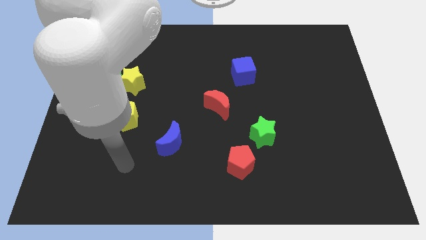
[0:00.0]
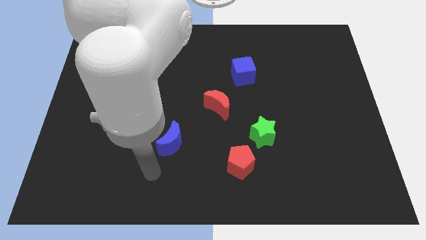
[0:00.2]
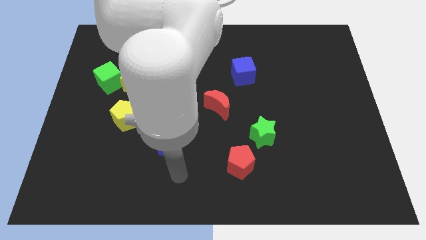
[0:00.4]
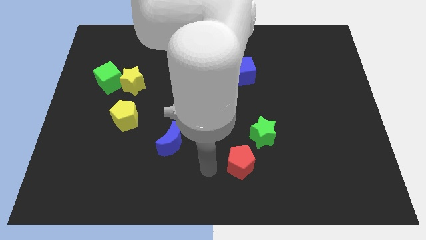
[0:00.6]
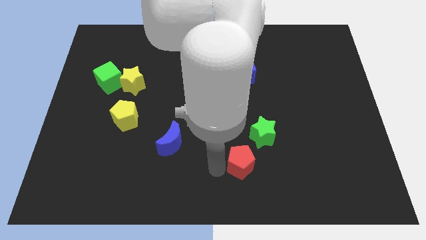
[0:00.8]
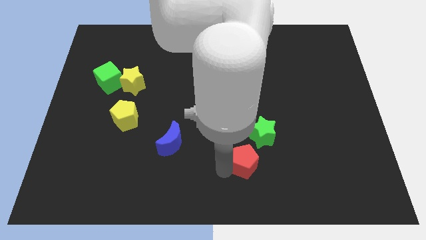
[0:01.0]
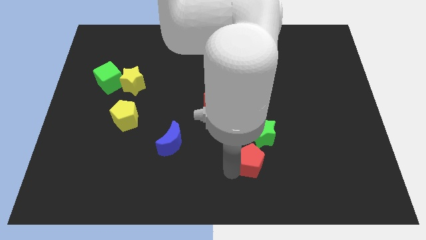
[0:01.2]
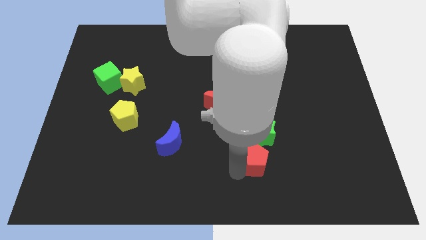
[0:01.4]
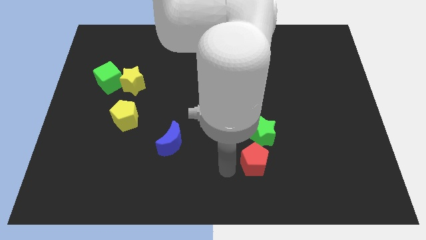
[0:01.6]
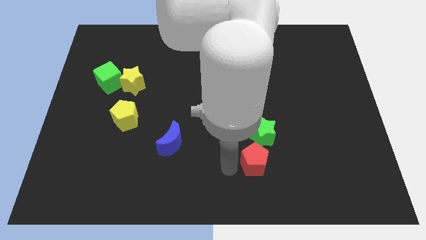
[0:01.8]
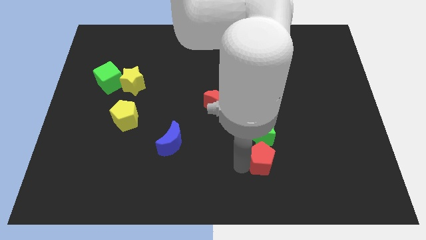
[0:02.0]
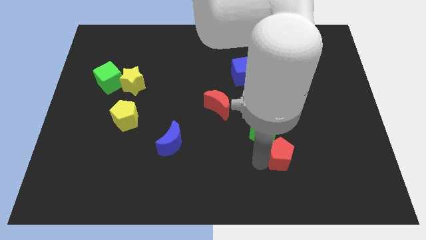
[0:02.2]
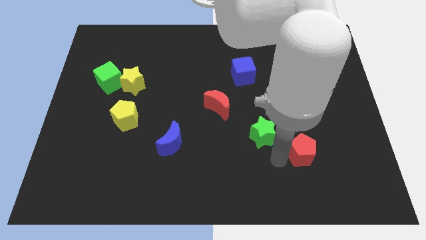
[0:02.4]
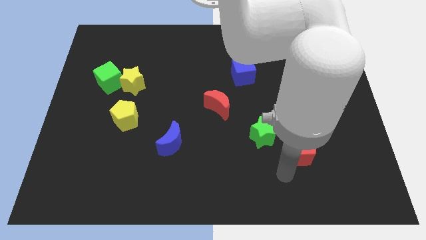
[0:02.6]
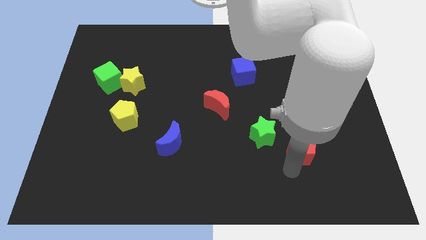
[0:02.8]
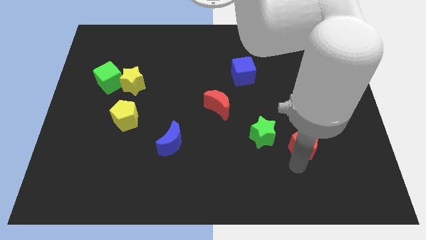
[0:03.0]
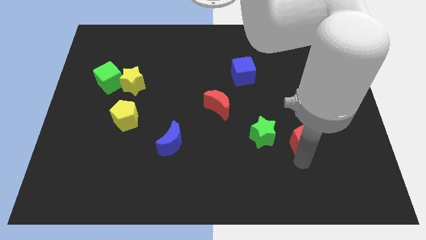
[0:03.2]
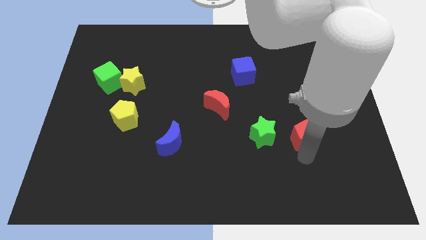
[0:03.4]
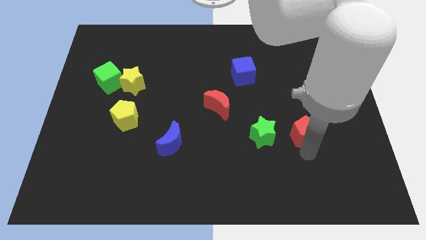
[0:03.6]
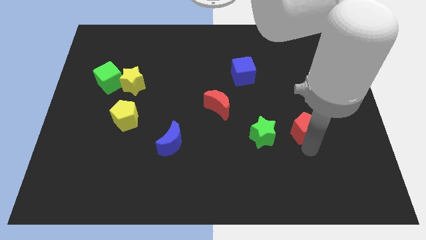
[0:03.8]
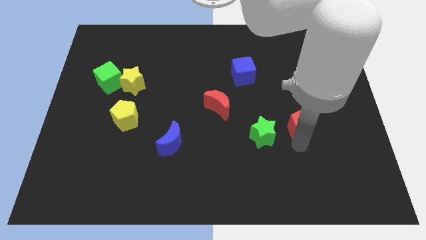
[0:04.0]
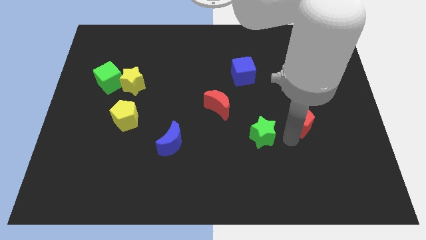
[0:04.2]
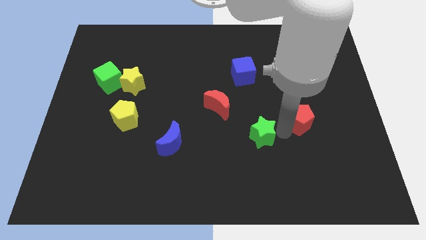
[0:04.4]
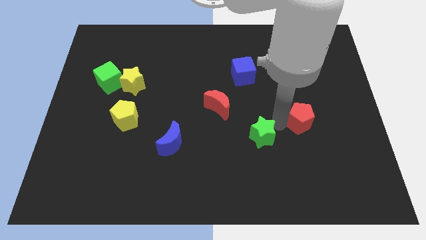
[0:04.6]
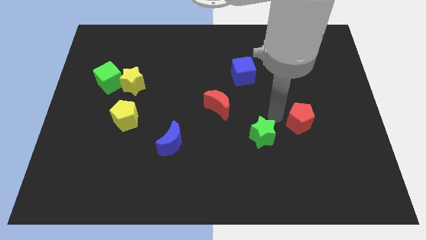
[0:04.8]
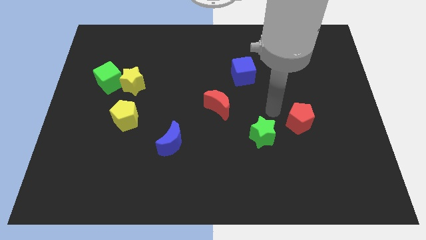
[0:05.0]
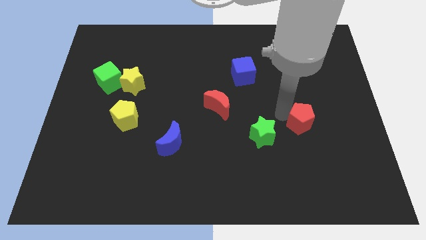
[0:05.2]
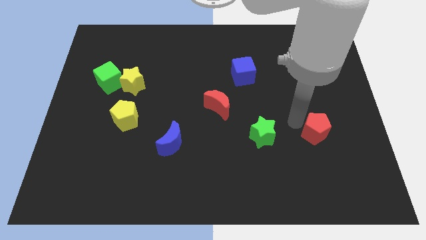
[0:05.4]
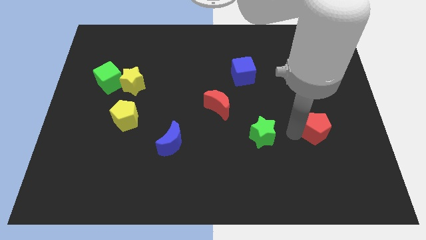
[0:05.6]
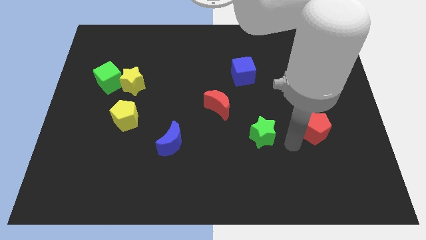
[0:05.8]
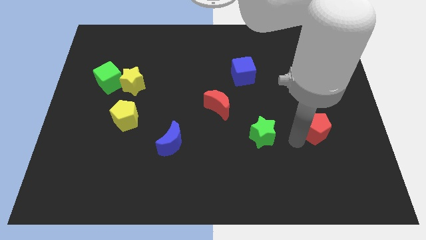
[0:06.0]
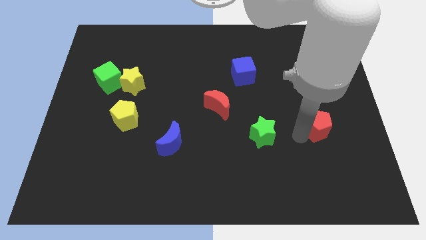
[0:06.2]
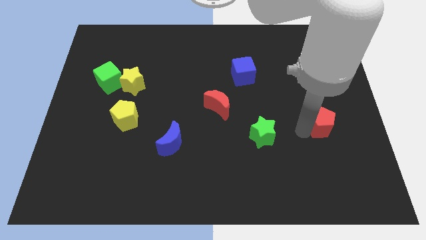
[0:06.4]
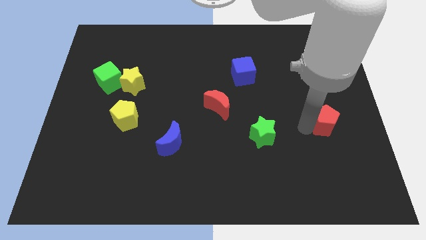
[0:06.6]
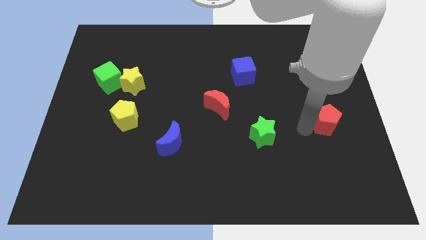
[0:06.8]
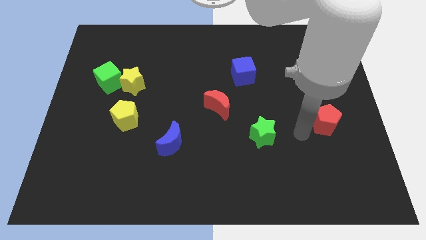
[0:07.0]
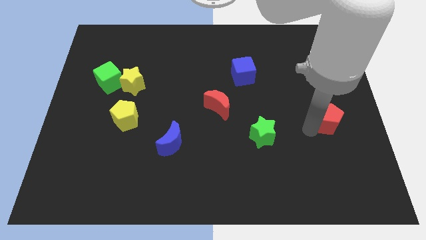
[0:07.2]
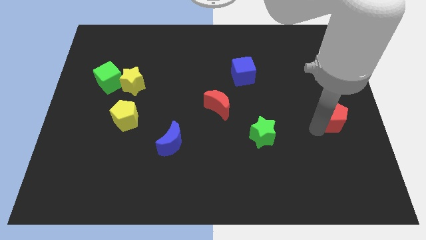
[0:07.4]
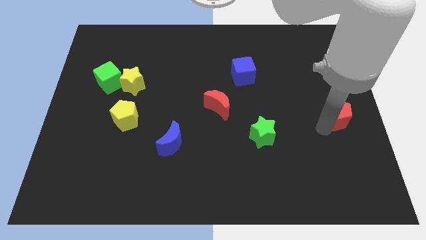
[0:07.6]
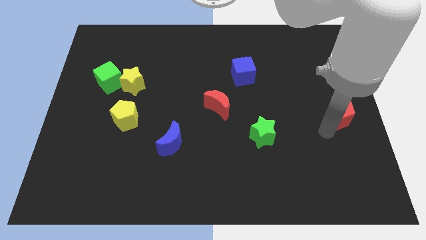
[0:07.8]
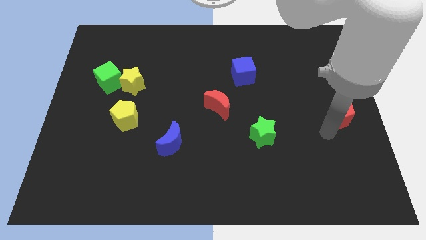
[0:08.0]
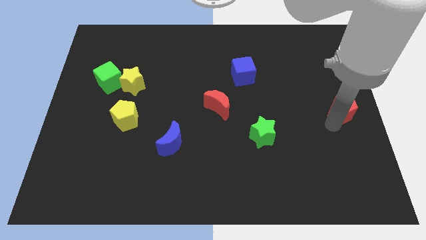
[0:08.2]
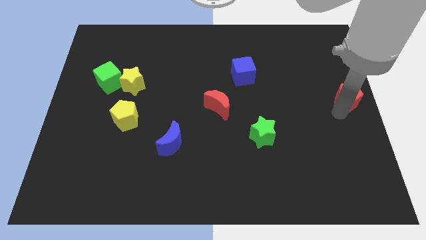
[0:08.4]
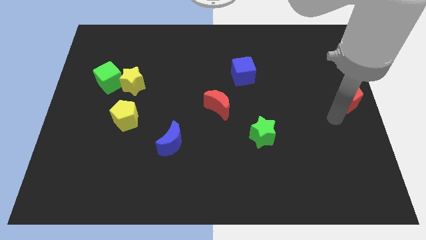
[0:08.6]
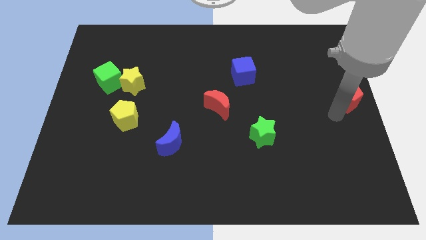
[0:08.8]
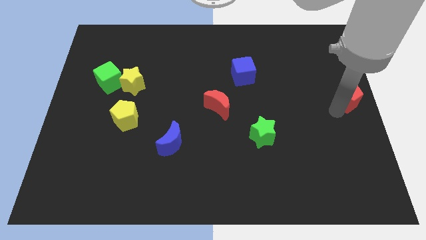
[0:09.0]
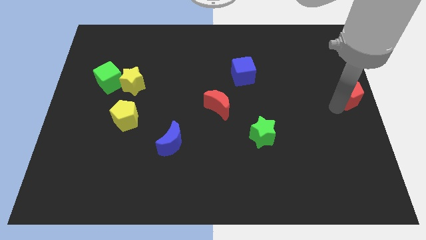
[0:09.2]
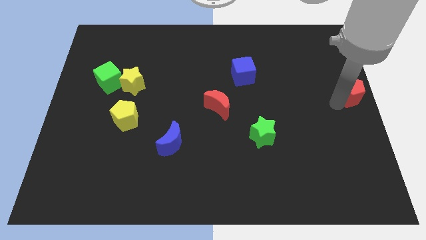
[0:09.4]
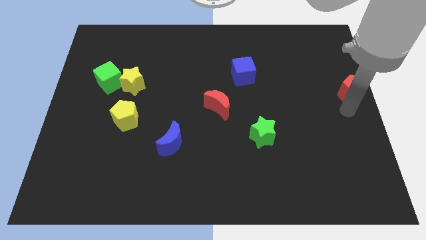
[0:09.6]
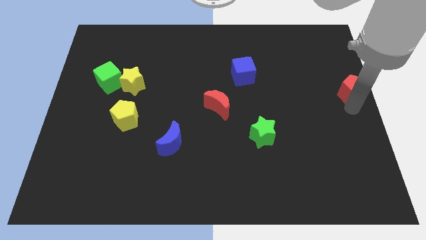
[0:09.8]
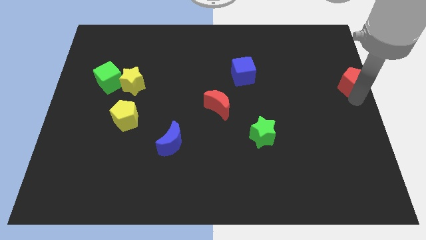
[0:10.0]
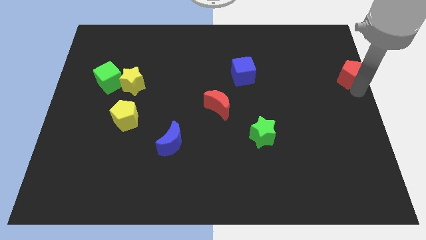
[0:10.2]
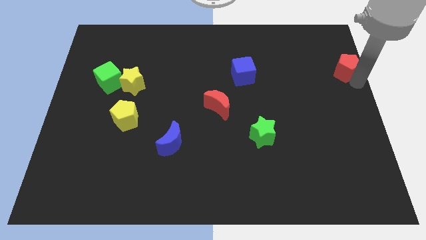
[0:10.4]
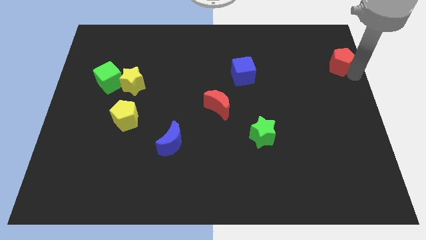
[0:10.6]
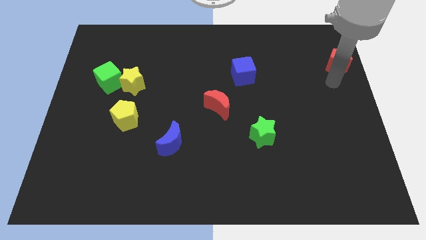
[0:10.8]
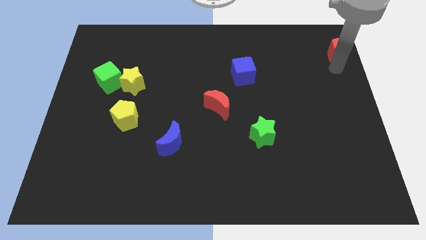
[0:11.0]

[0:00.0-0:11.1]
slide the red pentagon to the top right corner
